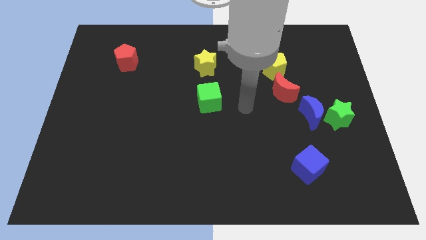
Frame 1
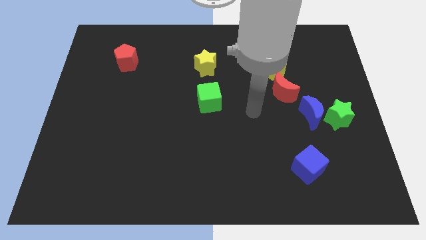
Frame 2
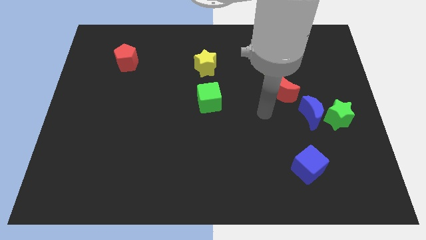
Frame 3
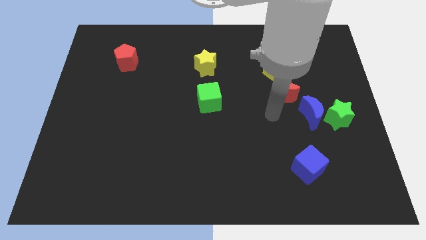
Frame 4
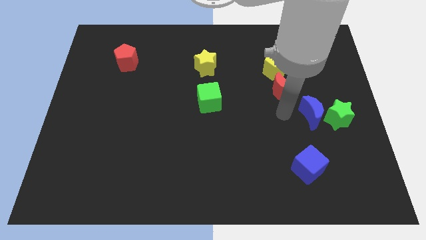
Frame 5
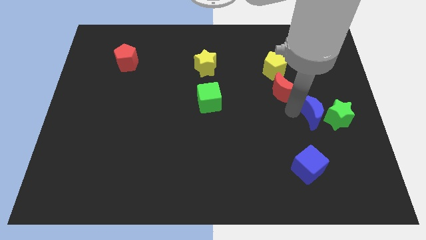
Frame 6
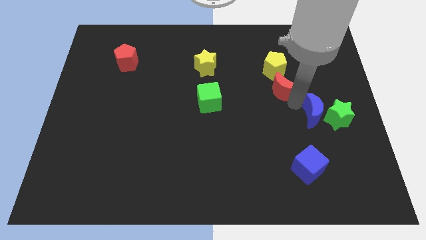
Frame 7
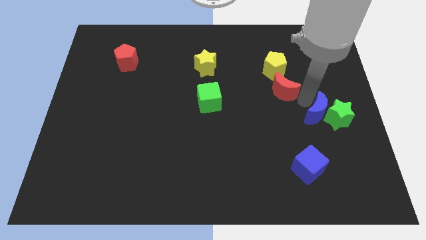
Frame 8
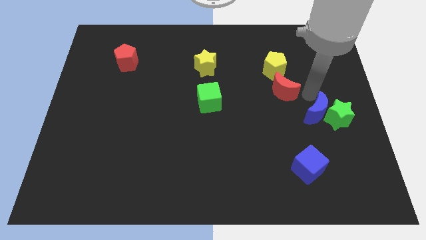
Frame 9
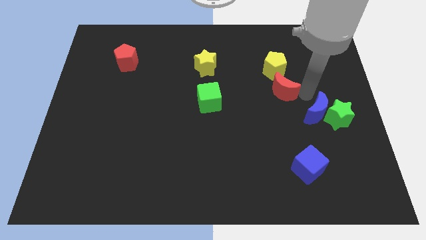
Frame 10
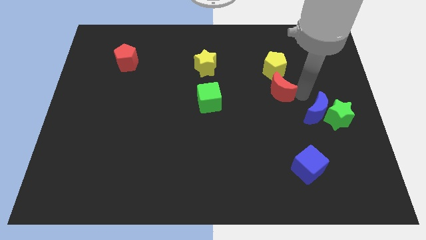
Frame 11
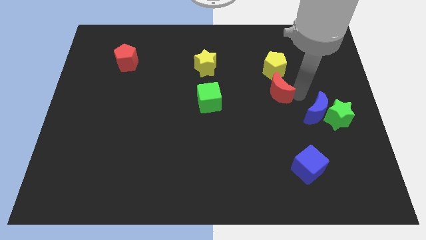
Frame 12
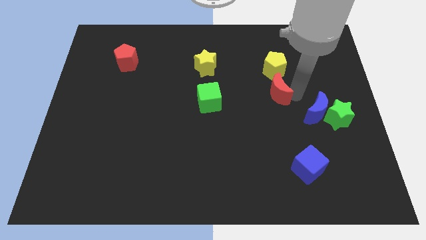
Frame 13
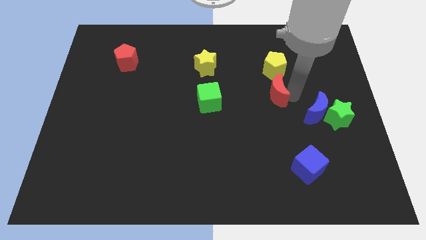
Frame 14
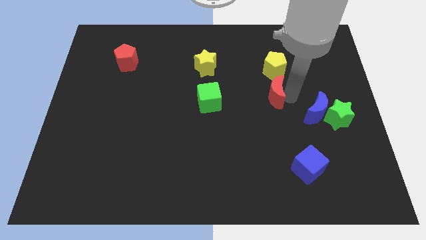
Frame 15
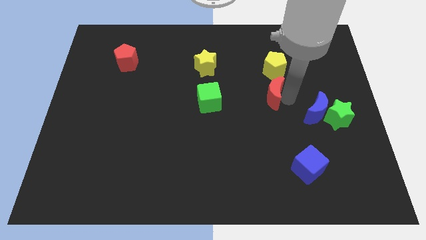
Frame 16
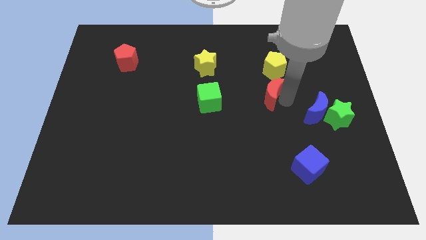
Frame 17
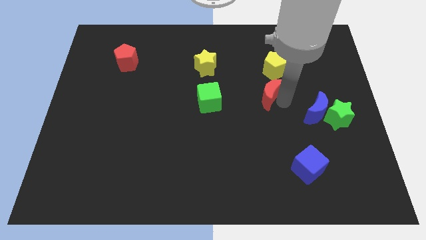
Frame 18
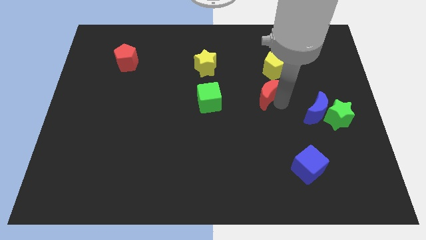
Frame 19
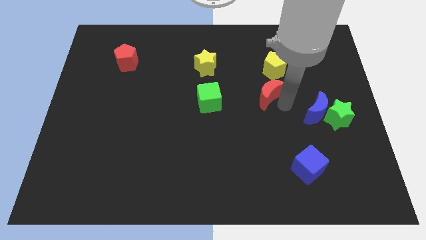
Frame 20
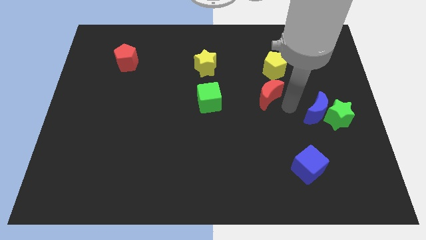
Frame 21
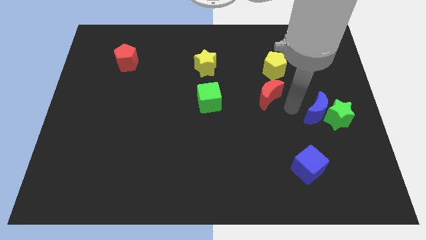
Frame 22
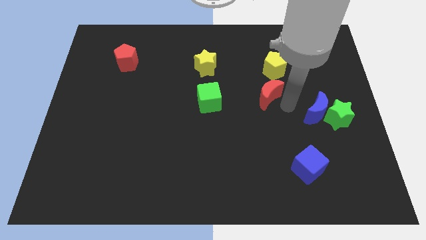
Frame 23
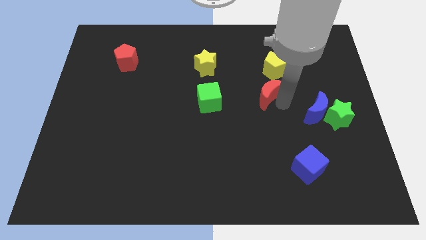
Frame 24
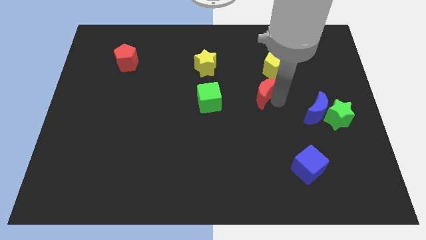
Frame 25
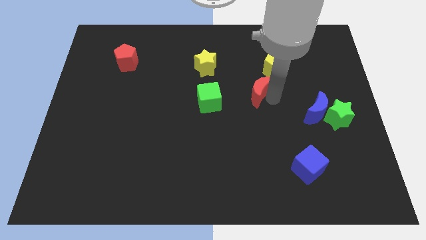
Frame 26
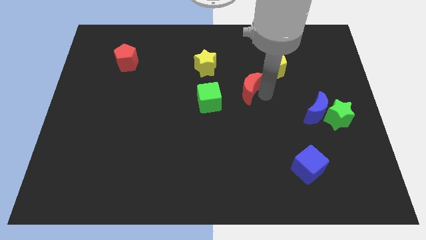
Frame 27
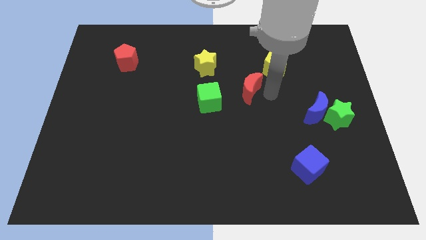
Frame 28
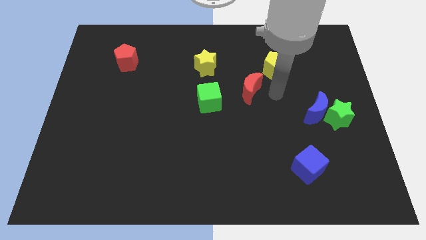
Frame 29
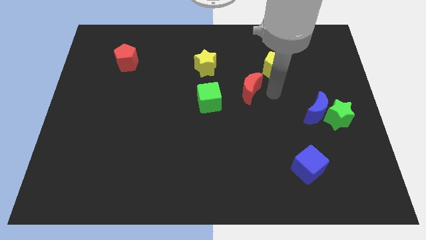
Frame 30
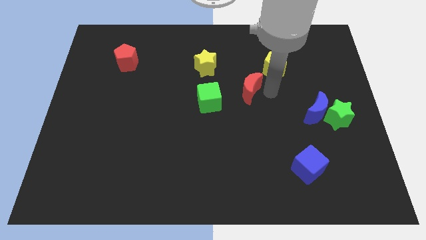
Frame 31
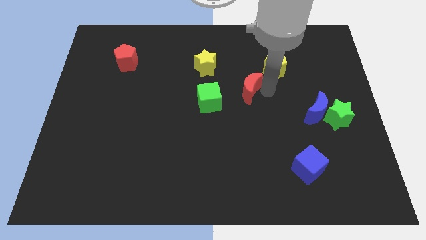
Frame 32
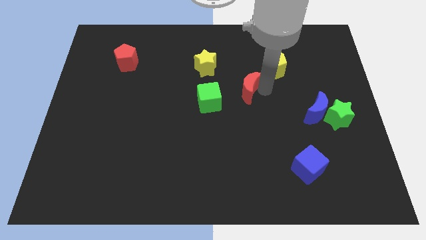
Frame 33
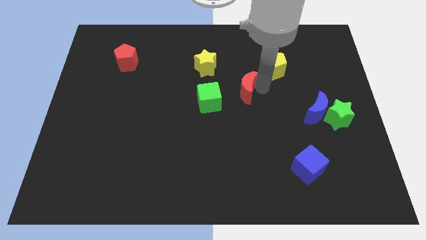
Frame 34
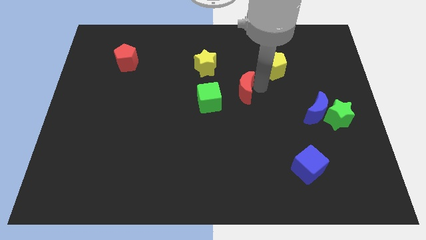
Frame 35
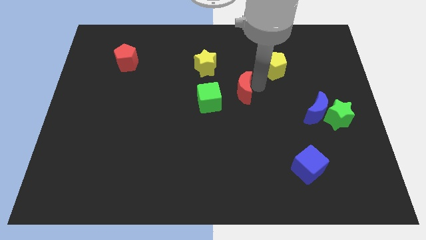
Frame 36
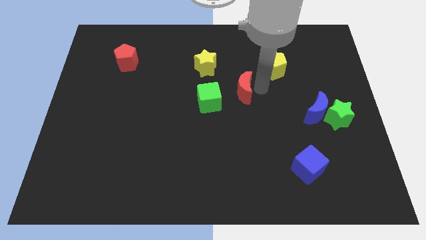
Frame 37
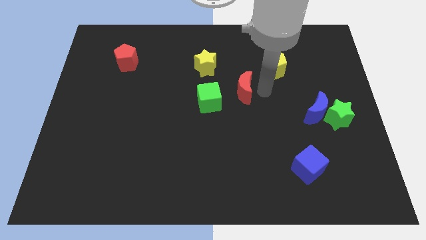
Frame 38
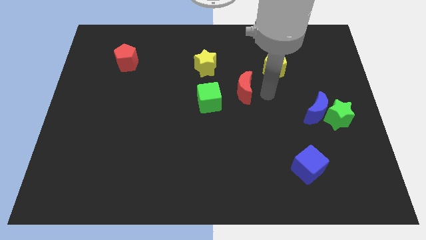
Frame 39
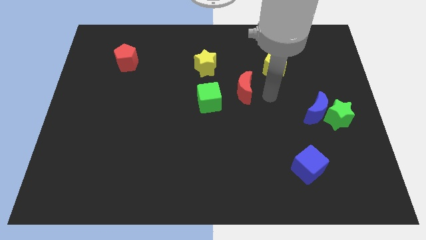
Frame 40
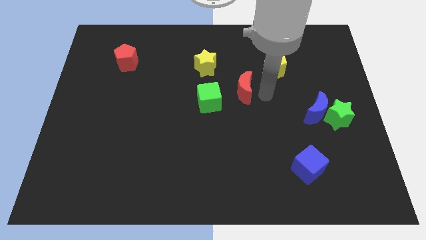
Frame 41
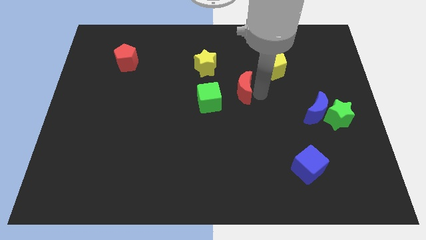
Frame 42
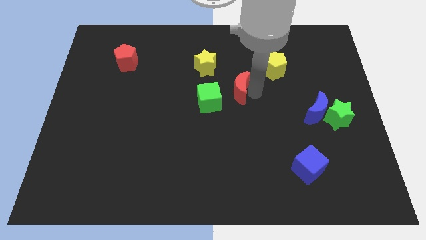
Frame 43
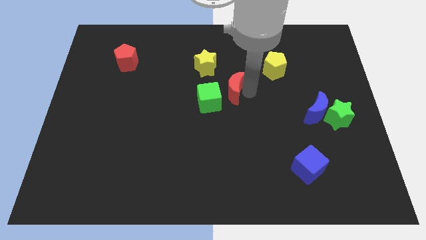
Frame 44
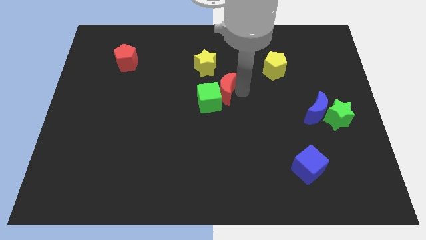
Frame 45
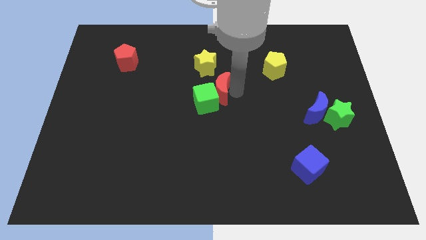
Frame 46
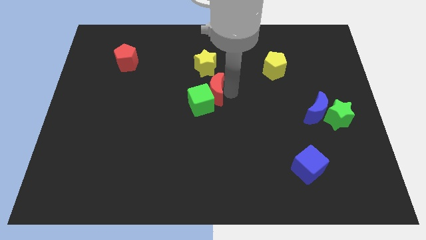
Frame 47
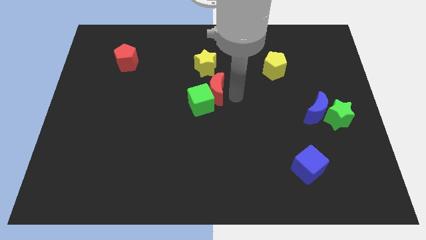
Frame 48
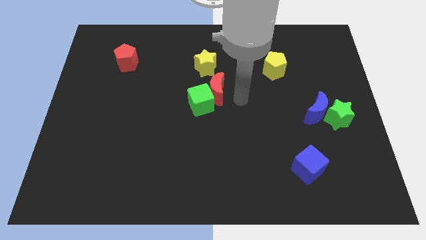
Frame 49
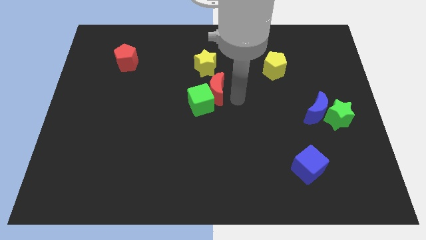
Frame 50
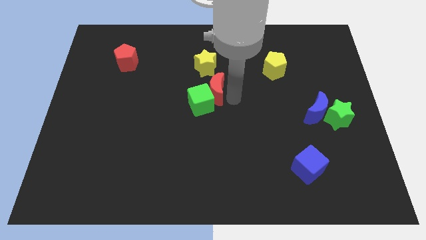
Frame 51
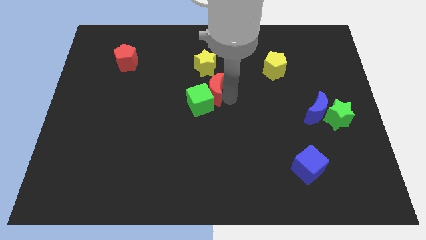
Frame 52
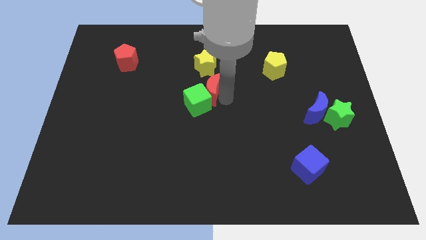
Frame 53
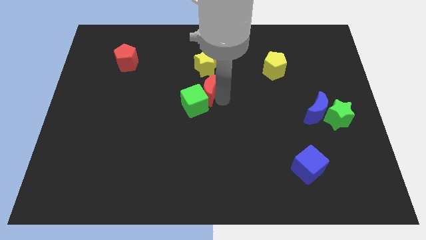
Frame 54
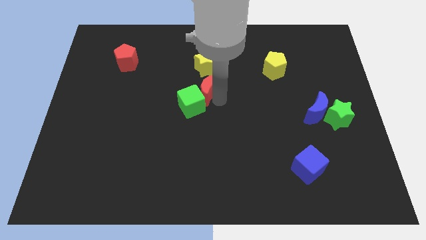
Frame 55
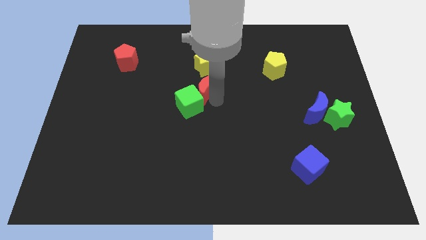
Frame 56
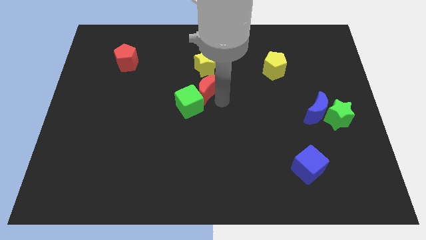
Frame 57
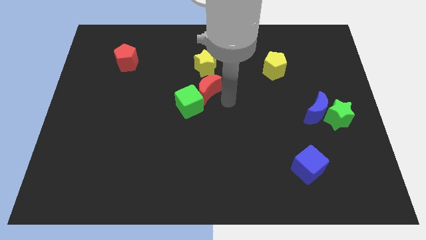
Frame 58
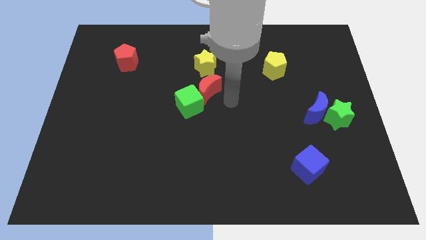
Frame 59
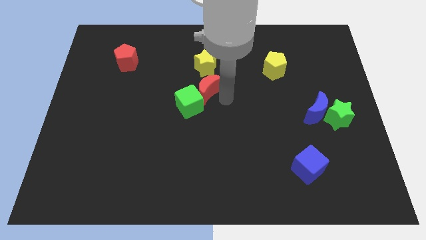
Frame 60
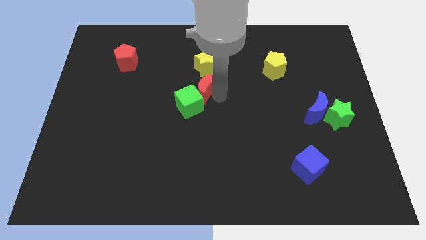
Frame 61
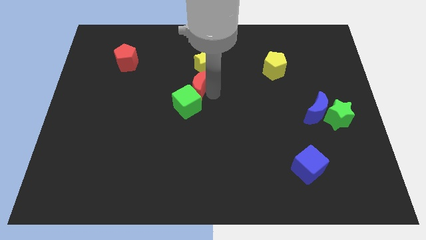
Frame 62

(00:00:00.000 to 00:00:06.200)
push the red moon diagonally down and to the left of the yellow star
